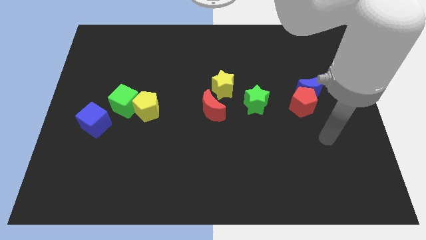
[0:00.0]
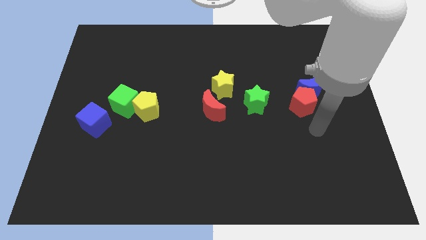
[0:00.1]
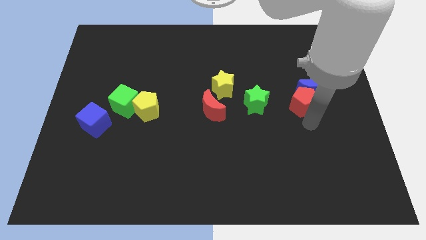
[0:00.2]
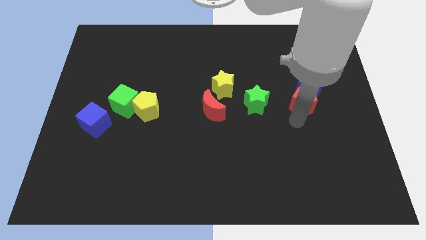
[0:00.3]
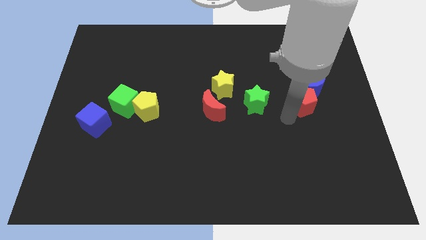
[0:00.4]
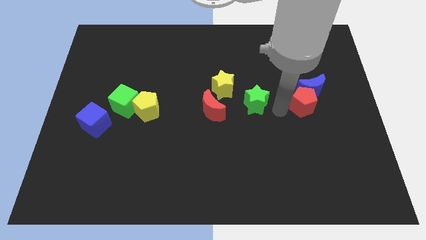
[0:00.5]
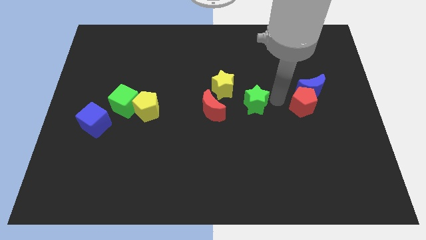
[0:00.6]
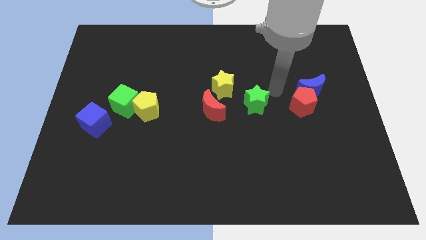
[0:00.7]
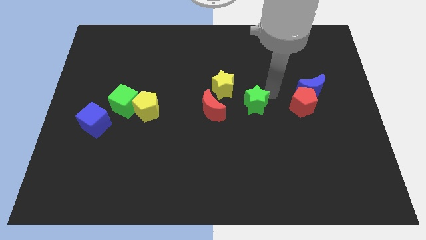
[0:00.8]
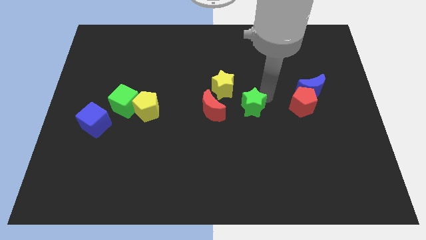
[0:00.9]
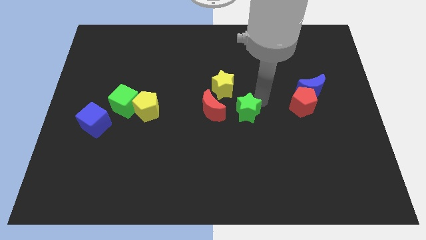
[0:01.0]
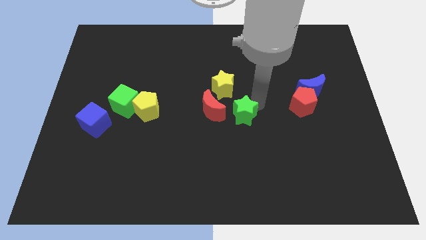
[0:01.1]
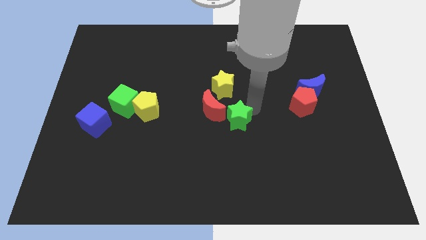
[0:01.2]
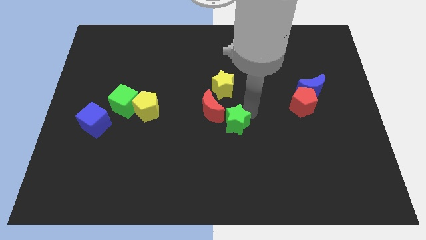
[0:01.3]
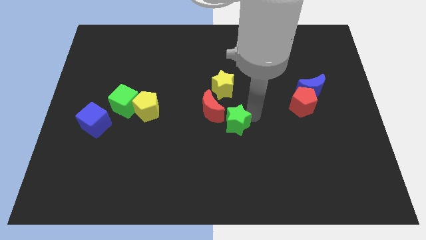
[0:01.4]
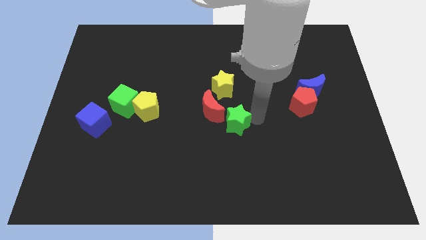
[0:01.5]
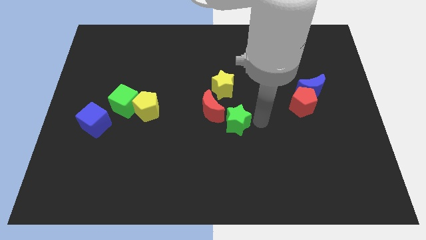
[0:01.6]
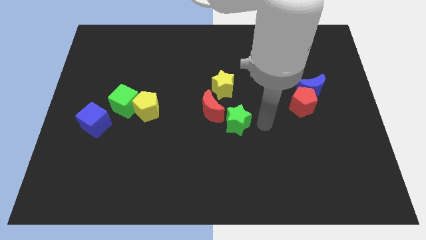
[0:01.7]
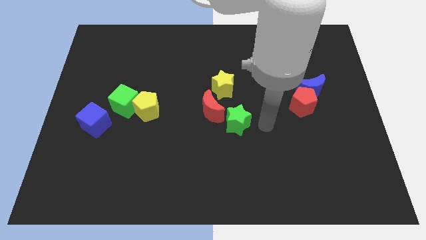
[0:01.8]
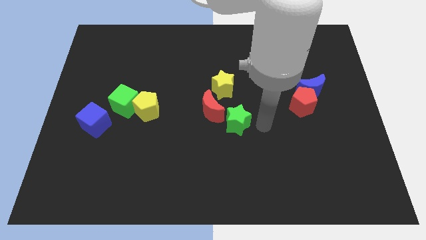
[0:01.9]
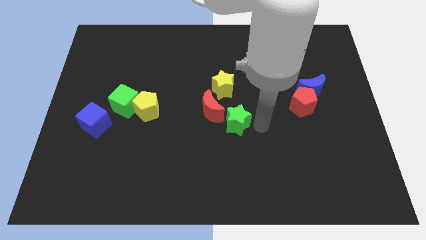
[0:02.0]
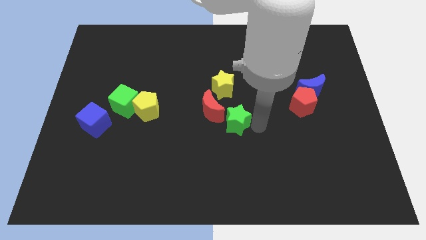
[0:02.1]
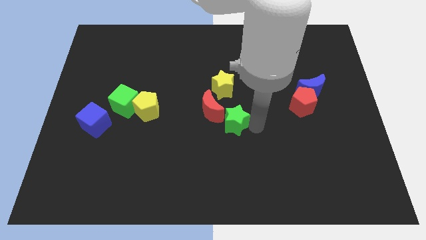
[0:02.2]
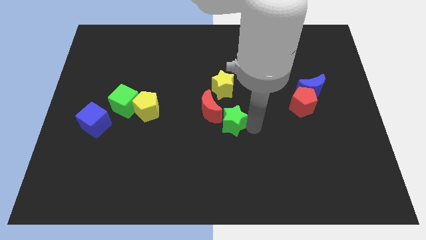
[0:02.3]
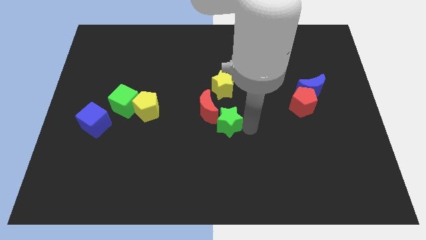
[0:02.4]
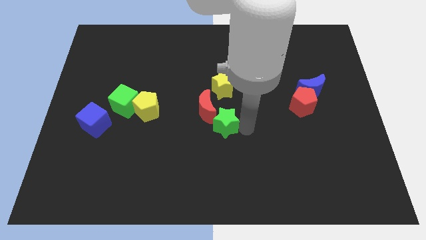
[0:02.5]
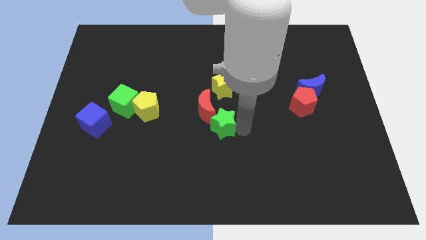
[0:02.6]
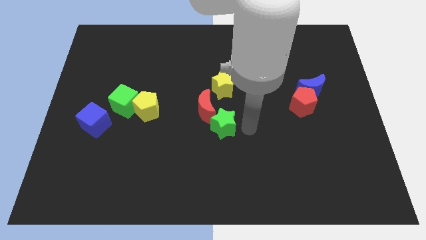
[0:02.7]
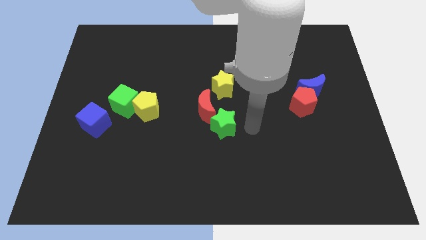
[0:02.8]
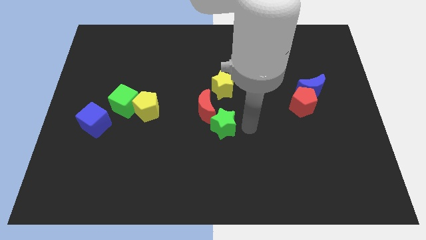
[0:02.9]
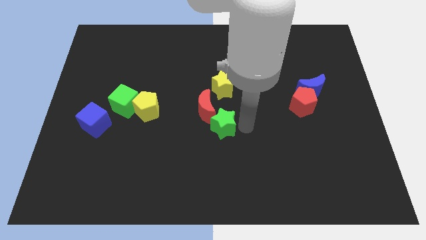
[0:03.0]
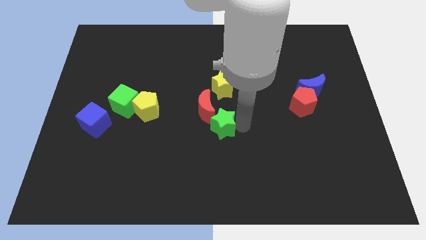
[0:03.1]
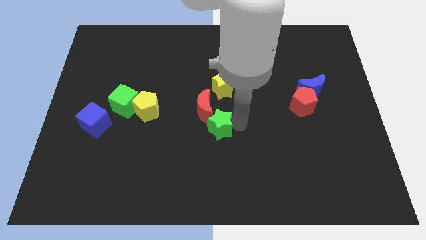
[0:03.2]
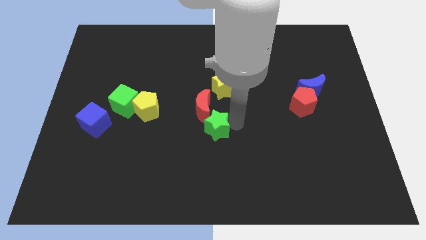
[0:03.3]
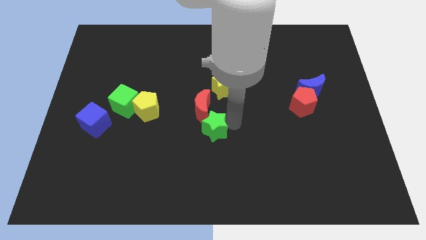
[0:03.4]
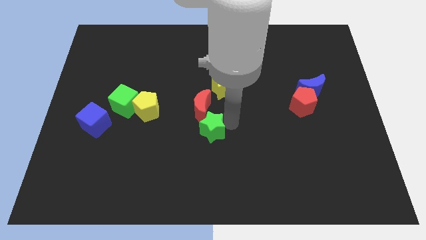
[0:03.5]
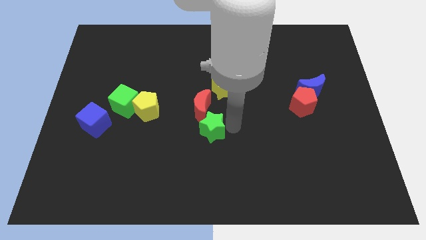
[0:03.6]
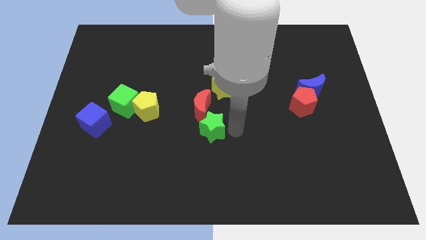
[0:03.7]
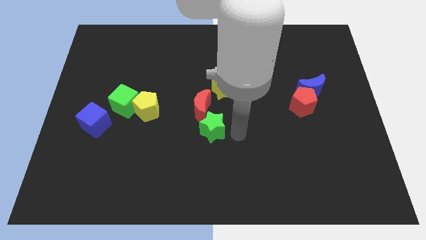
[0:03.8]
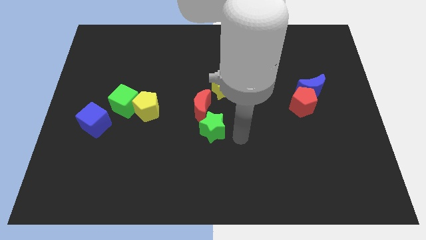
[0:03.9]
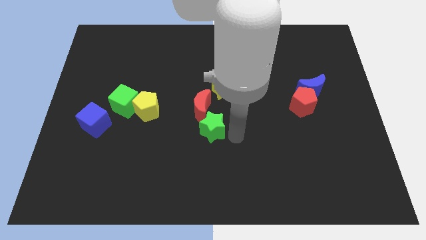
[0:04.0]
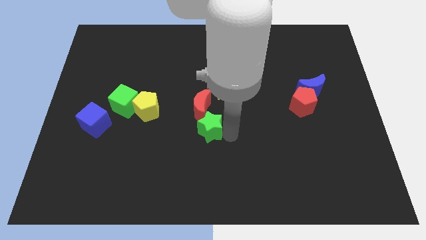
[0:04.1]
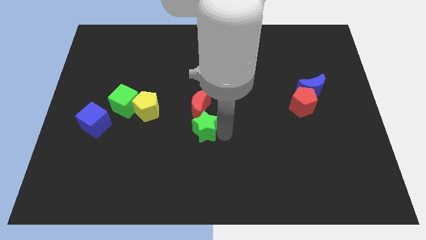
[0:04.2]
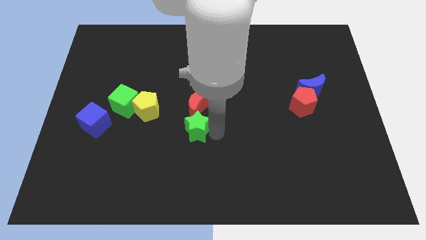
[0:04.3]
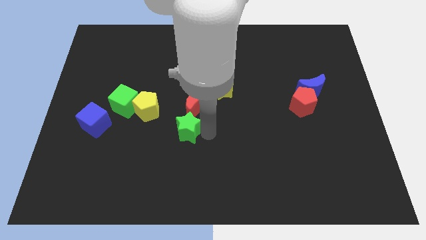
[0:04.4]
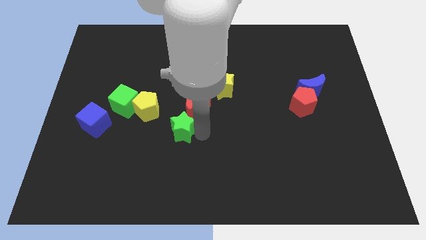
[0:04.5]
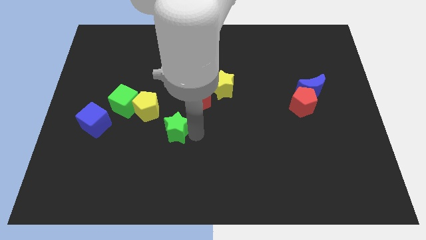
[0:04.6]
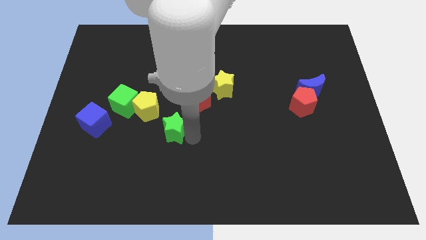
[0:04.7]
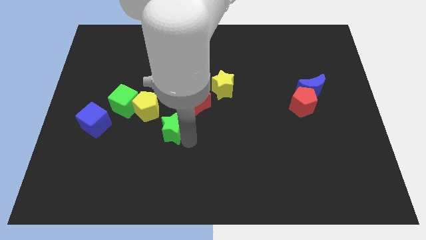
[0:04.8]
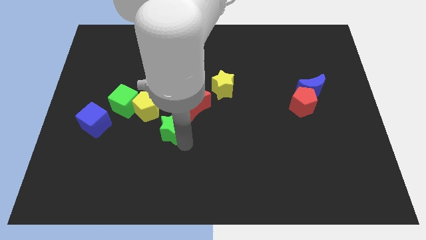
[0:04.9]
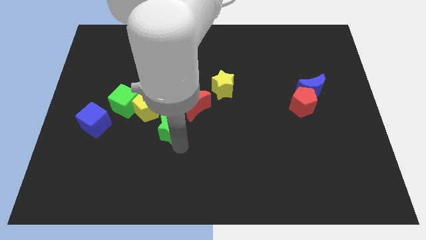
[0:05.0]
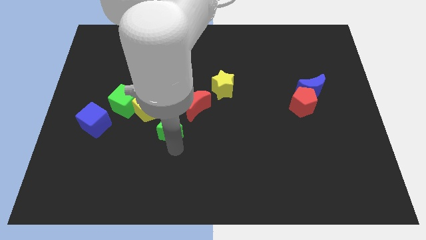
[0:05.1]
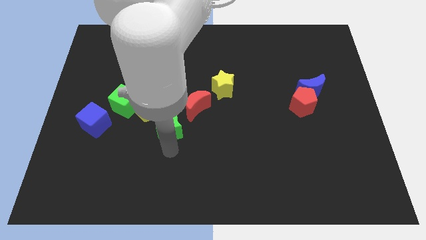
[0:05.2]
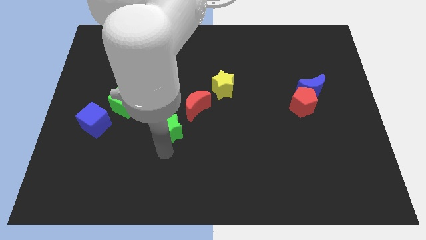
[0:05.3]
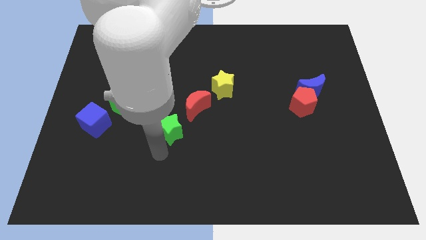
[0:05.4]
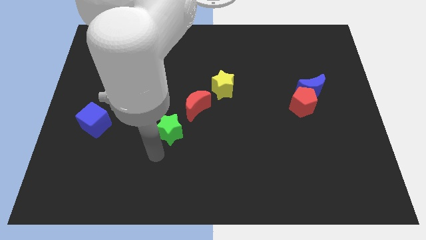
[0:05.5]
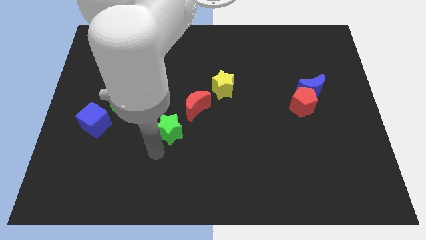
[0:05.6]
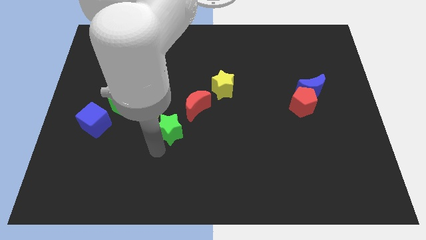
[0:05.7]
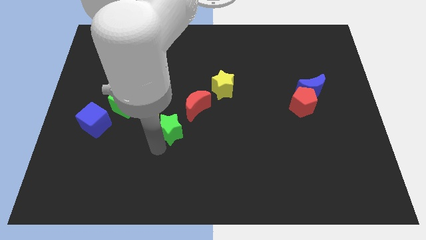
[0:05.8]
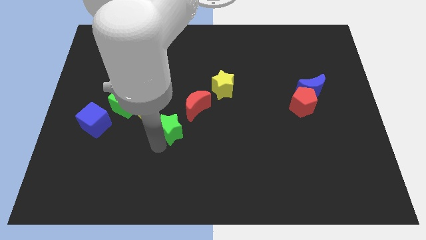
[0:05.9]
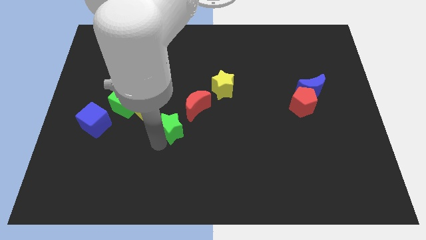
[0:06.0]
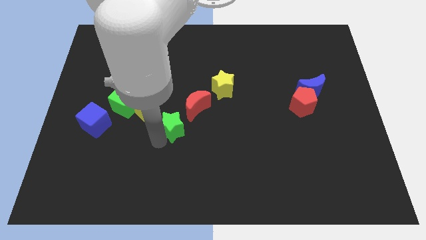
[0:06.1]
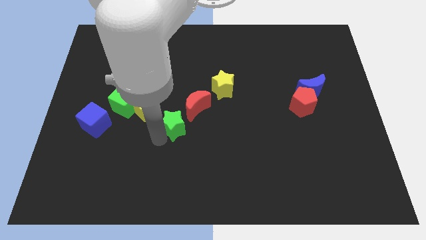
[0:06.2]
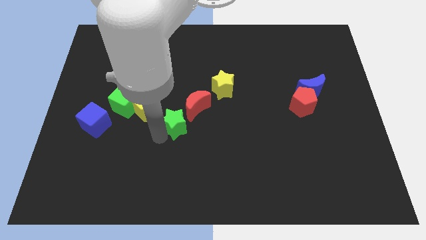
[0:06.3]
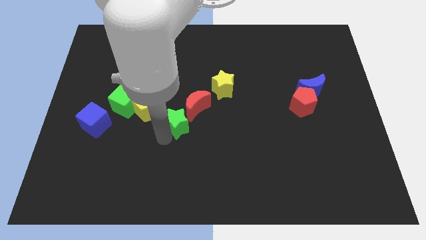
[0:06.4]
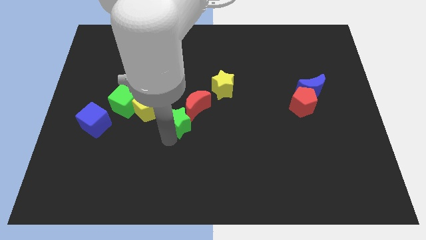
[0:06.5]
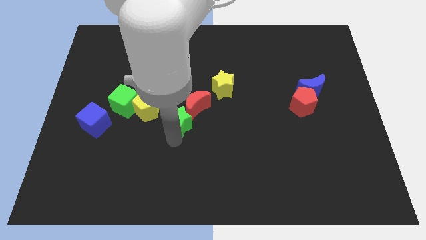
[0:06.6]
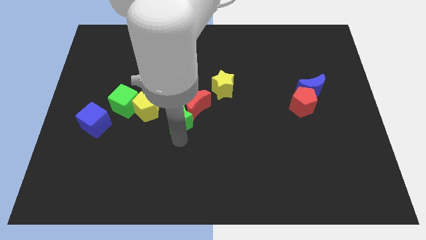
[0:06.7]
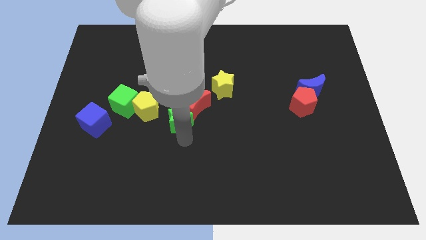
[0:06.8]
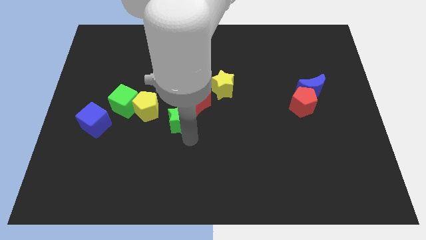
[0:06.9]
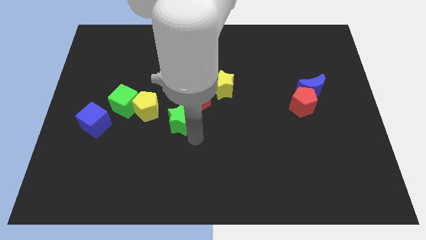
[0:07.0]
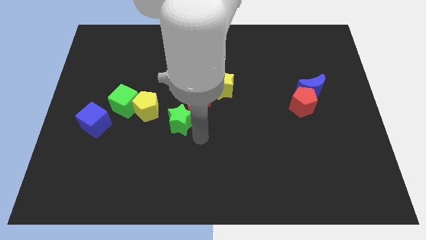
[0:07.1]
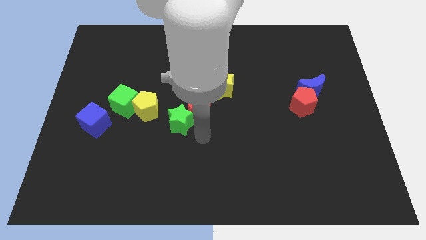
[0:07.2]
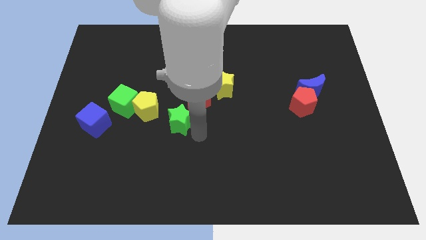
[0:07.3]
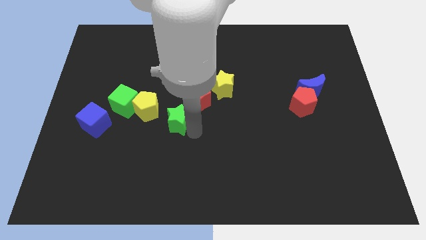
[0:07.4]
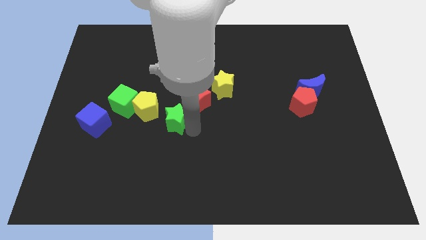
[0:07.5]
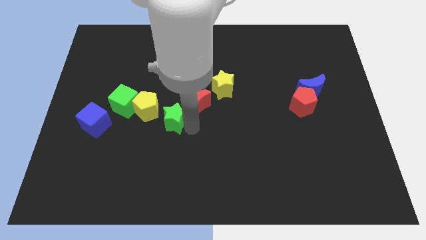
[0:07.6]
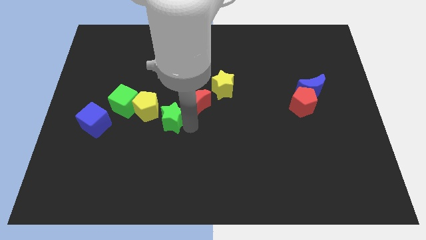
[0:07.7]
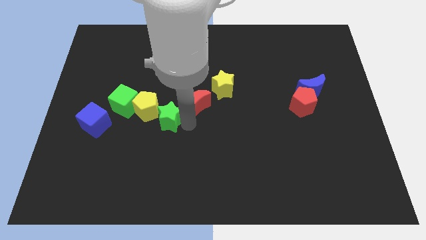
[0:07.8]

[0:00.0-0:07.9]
move the green star next to the yellow pentagon
